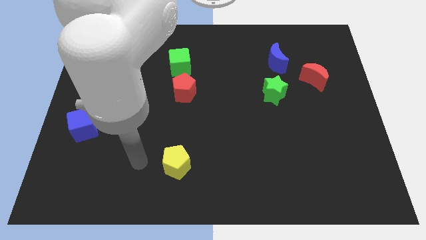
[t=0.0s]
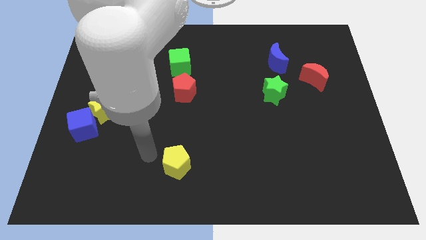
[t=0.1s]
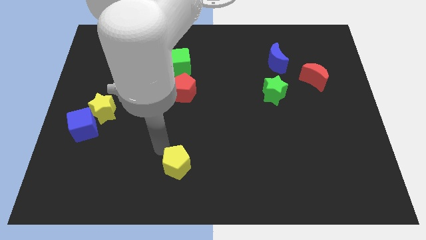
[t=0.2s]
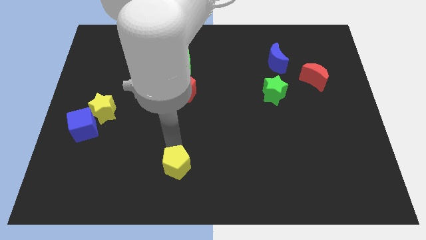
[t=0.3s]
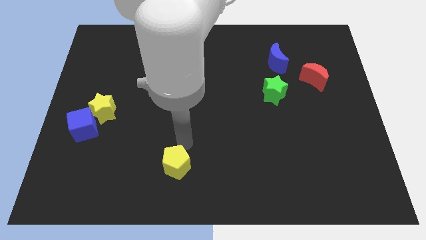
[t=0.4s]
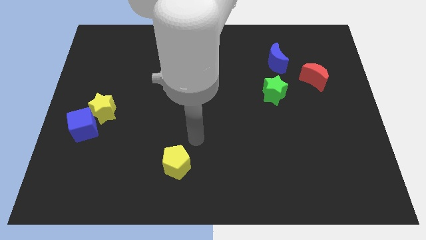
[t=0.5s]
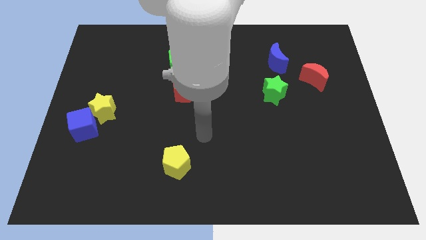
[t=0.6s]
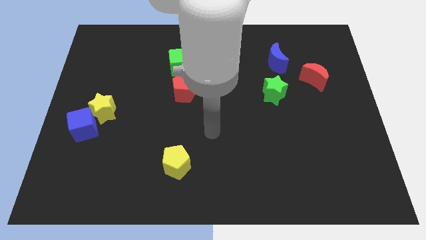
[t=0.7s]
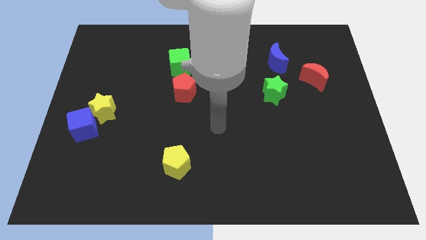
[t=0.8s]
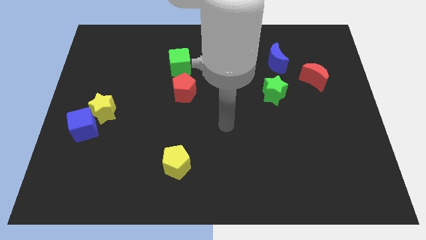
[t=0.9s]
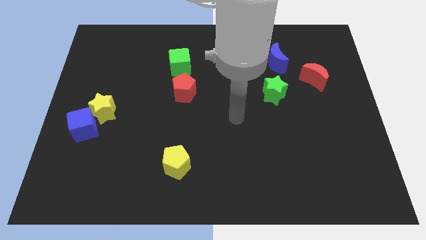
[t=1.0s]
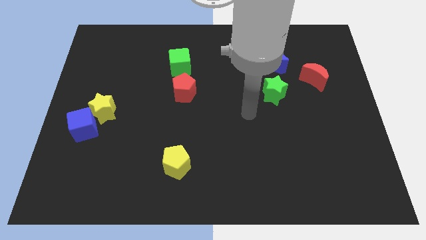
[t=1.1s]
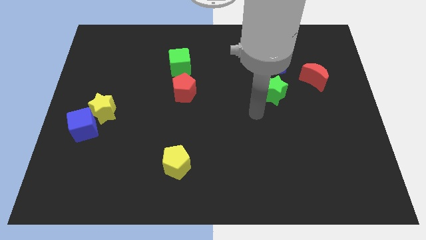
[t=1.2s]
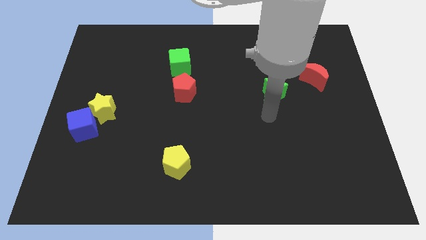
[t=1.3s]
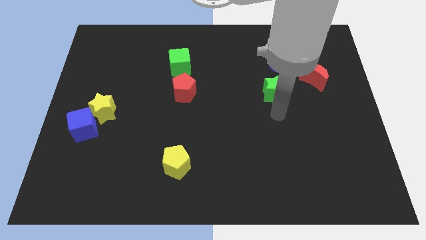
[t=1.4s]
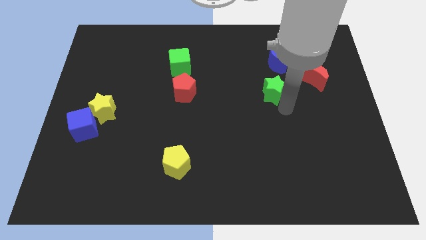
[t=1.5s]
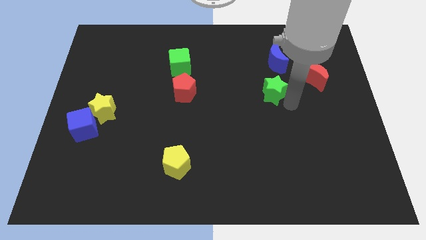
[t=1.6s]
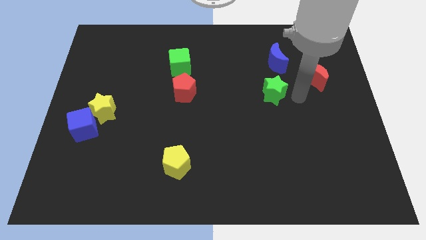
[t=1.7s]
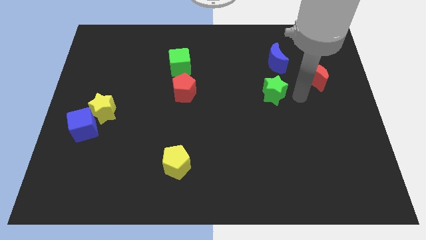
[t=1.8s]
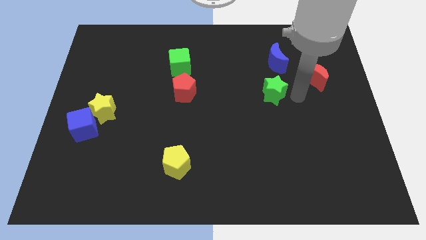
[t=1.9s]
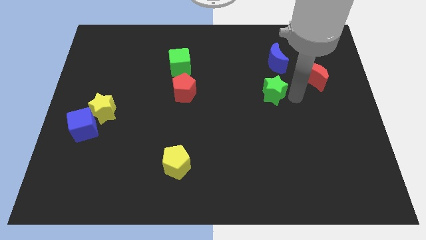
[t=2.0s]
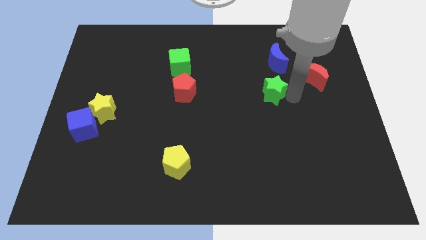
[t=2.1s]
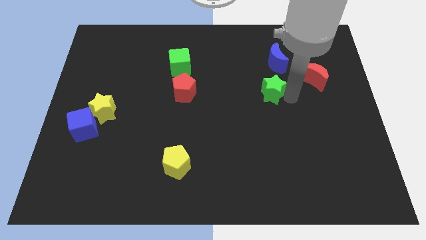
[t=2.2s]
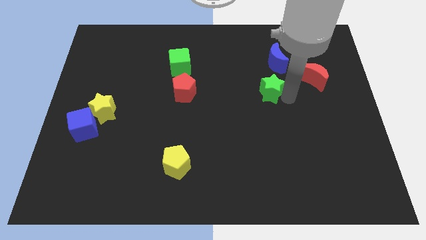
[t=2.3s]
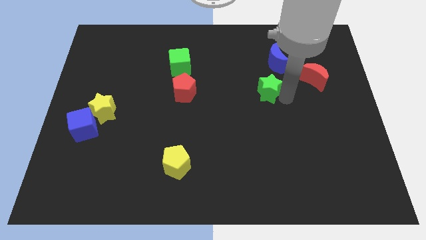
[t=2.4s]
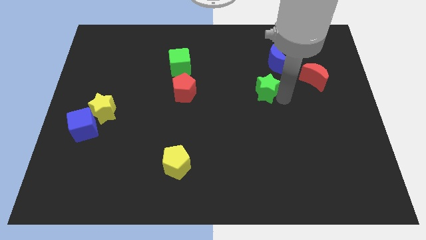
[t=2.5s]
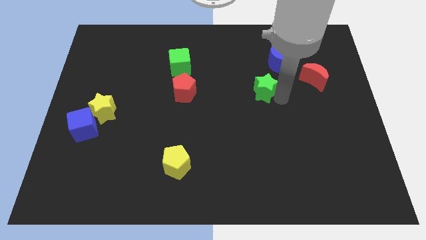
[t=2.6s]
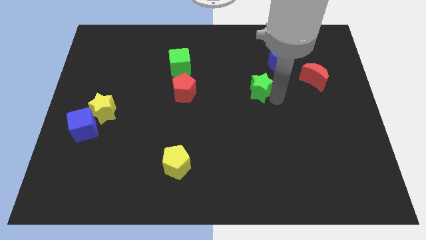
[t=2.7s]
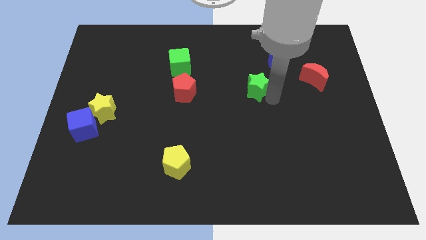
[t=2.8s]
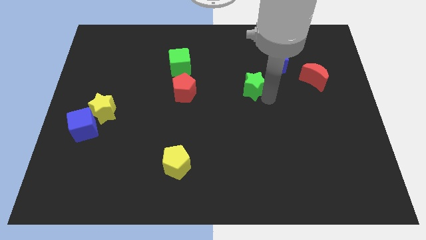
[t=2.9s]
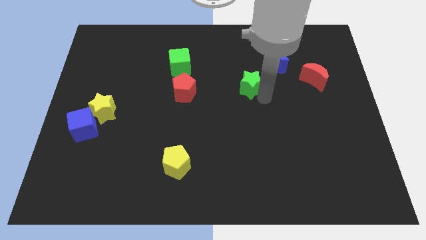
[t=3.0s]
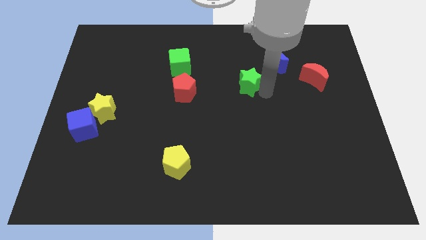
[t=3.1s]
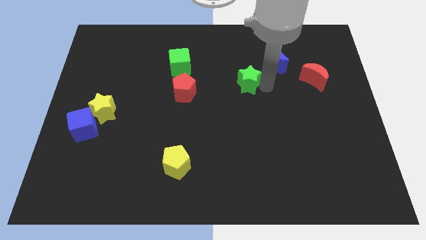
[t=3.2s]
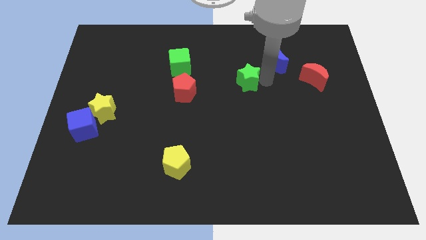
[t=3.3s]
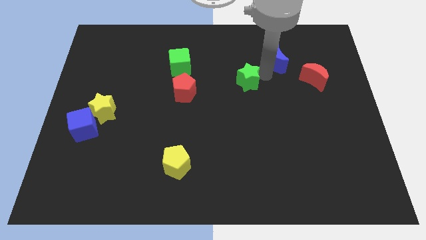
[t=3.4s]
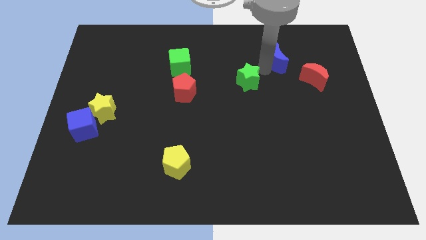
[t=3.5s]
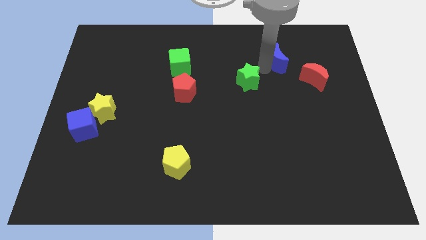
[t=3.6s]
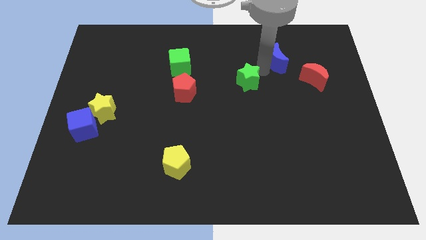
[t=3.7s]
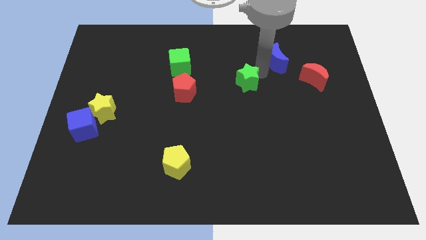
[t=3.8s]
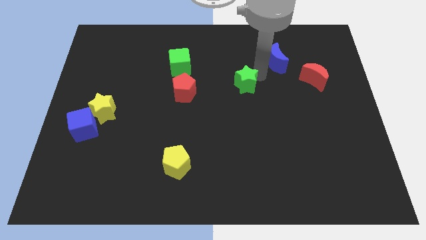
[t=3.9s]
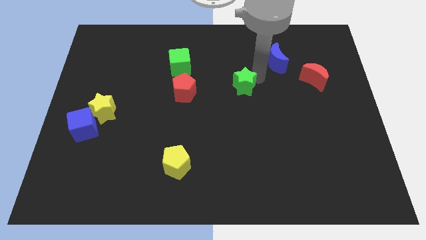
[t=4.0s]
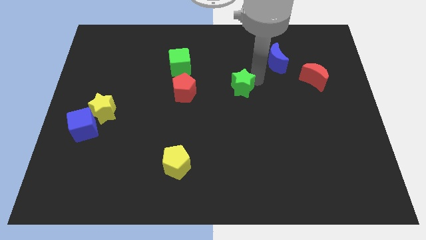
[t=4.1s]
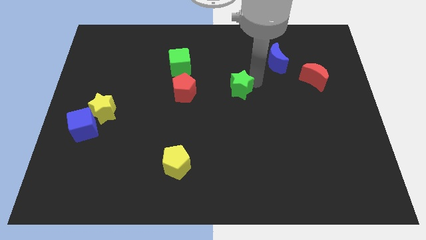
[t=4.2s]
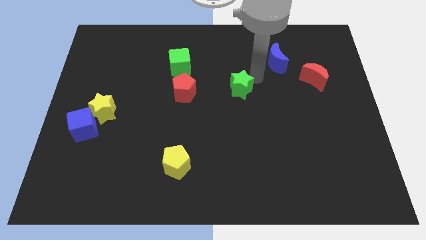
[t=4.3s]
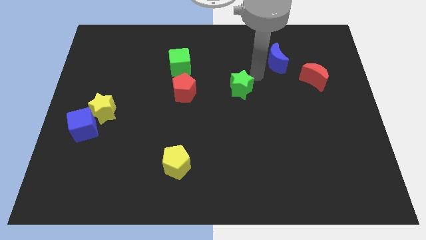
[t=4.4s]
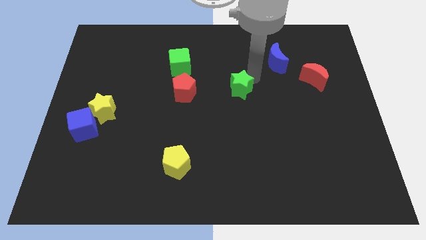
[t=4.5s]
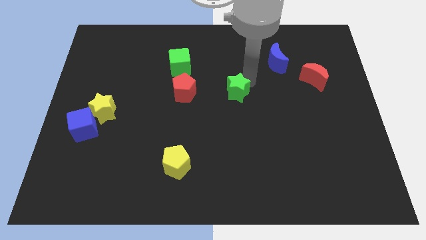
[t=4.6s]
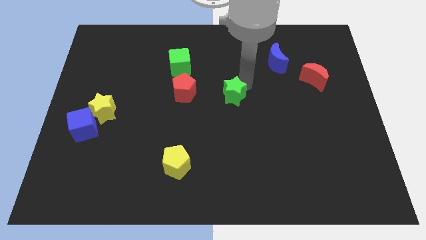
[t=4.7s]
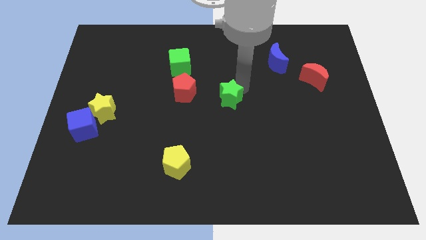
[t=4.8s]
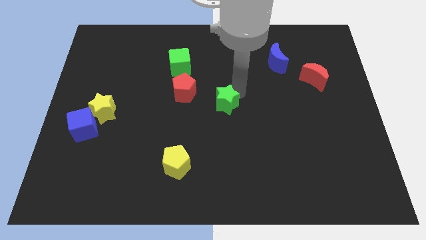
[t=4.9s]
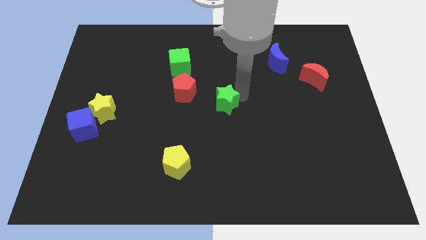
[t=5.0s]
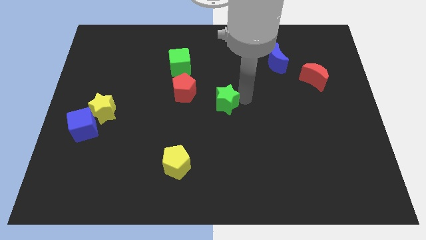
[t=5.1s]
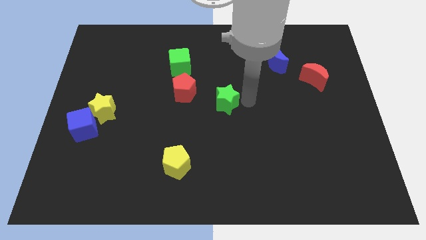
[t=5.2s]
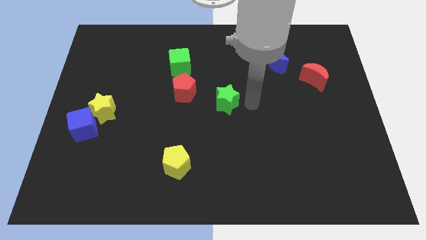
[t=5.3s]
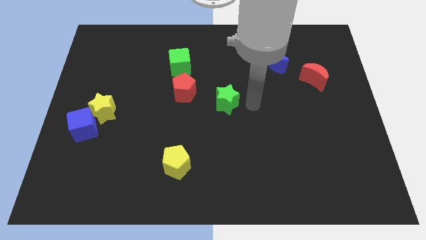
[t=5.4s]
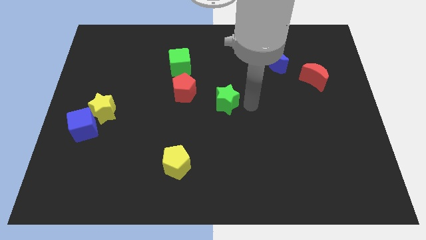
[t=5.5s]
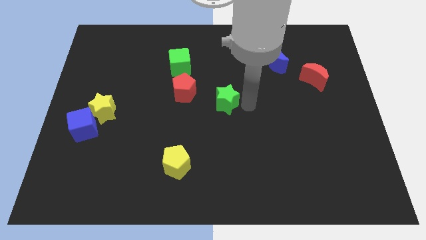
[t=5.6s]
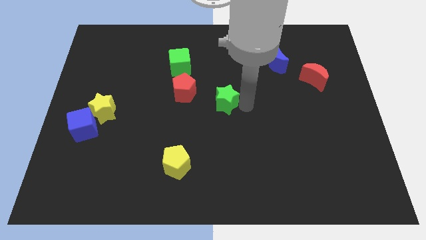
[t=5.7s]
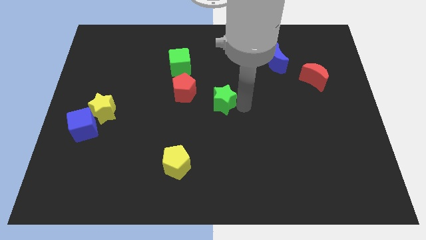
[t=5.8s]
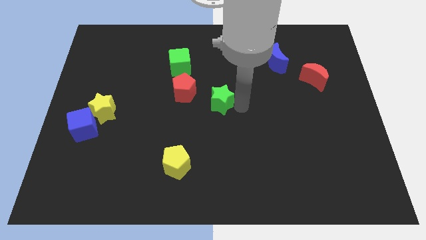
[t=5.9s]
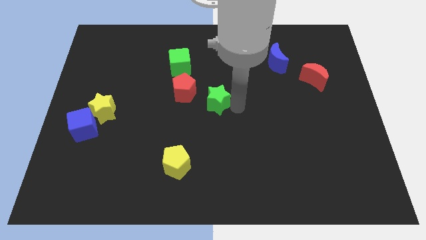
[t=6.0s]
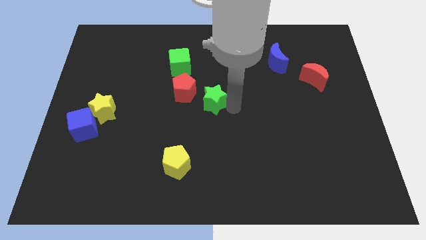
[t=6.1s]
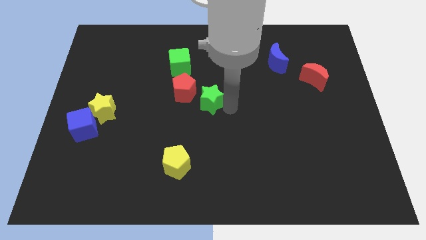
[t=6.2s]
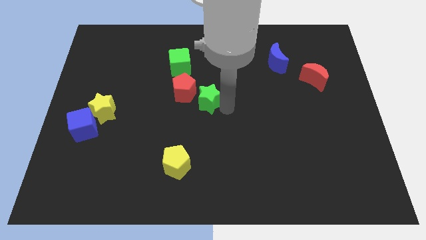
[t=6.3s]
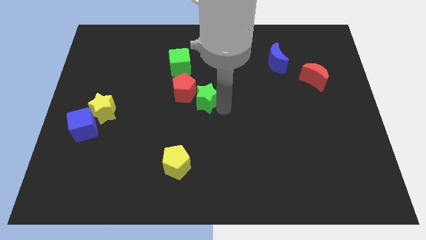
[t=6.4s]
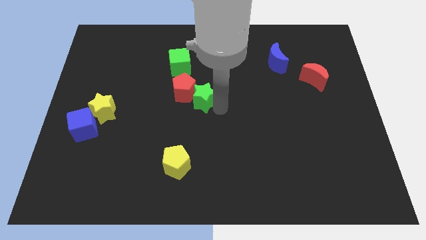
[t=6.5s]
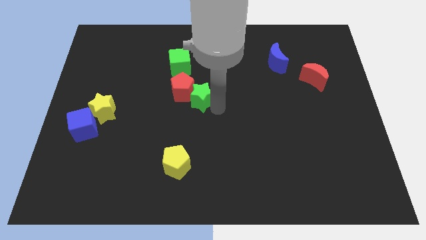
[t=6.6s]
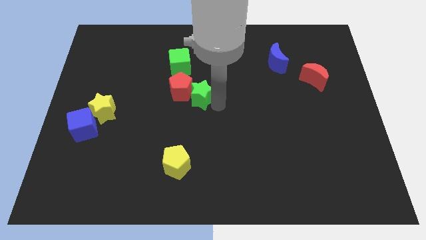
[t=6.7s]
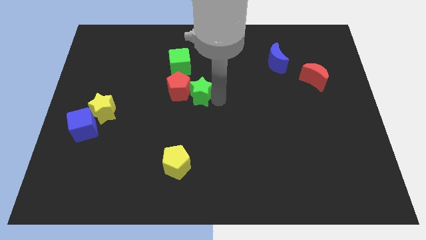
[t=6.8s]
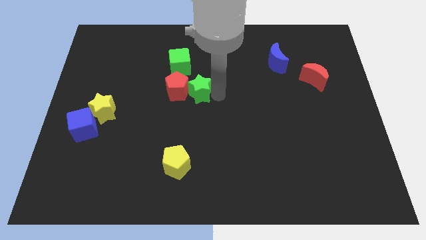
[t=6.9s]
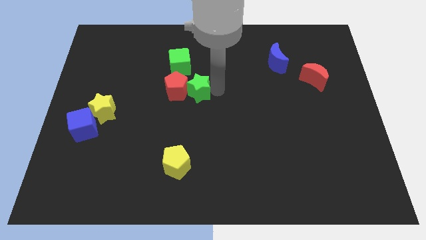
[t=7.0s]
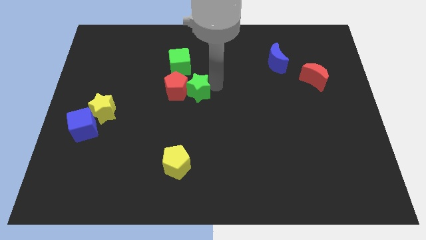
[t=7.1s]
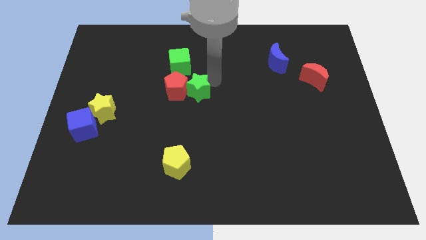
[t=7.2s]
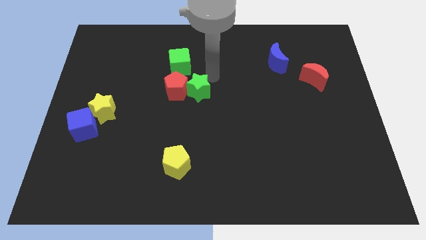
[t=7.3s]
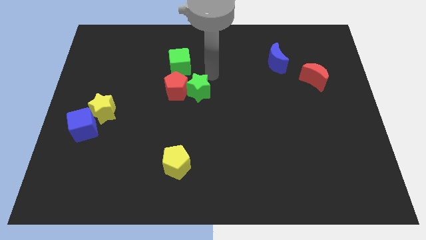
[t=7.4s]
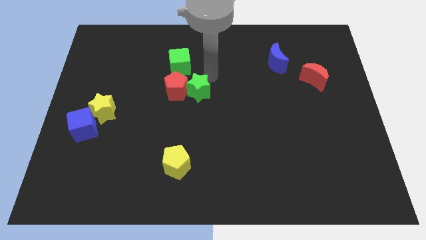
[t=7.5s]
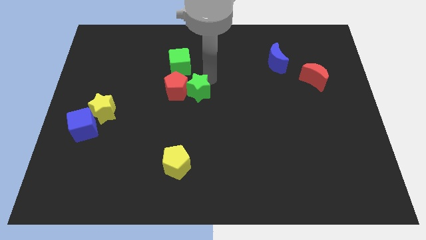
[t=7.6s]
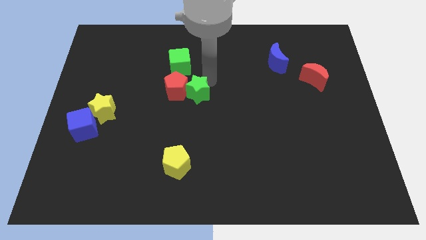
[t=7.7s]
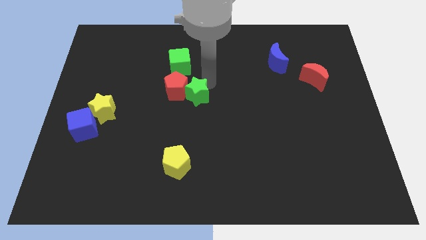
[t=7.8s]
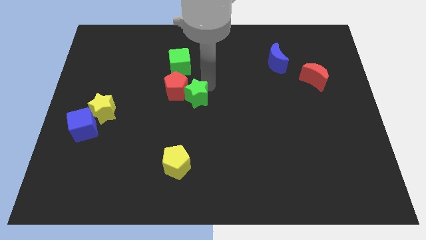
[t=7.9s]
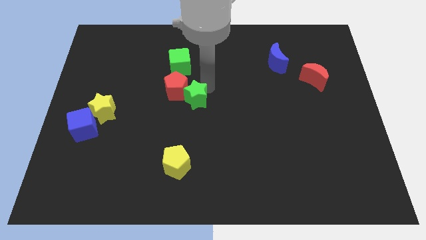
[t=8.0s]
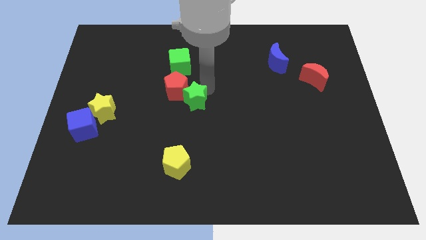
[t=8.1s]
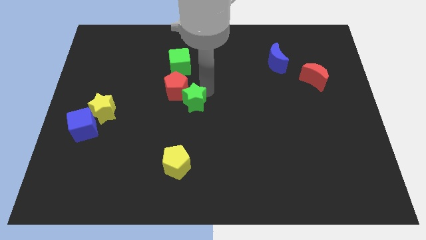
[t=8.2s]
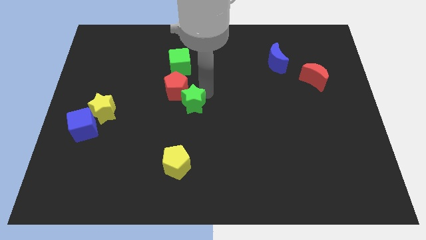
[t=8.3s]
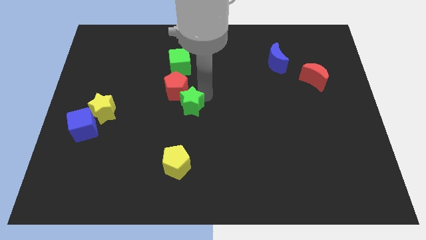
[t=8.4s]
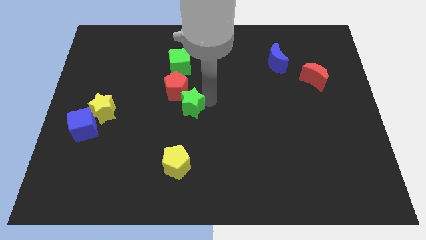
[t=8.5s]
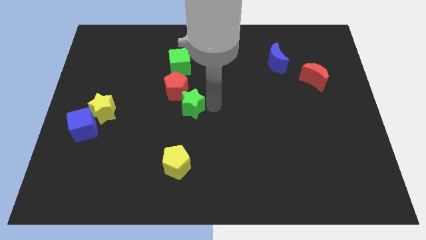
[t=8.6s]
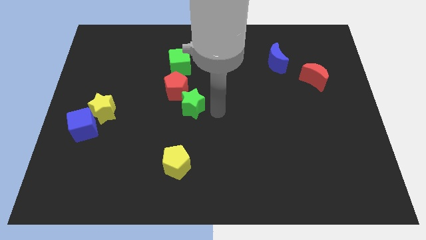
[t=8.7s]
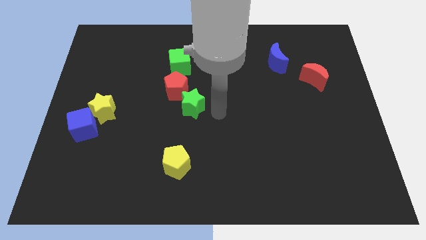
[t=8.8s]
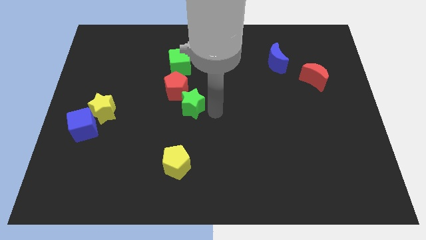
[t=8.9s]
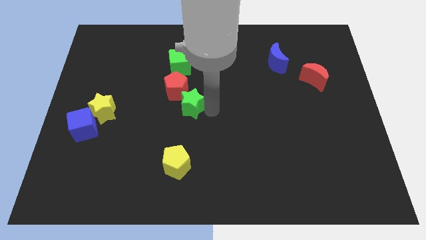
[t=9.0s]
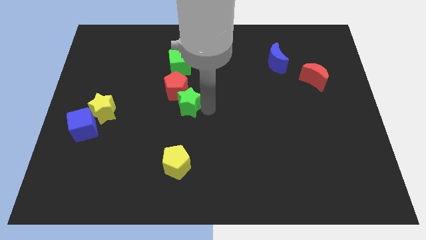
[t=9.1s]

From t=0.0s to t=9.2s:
move the green star to the left
